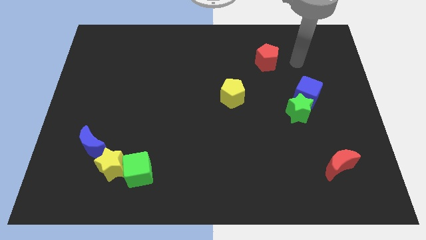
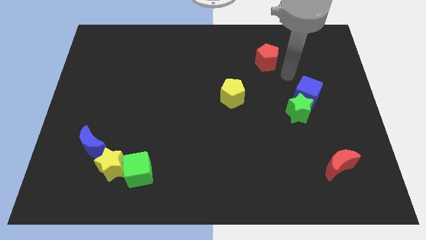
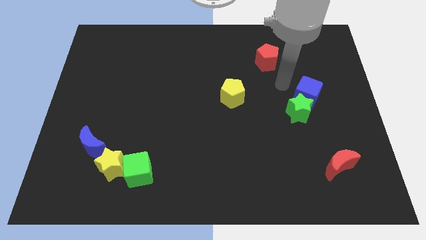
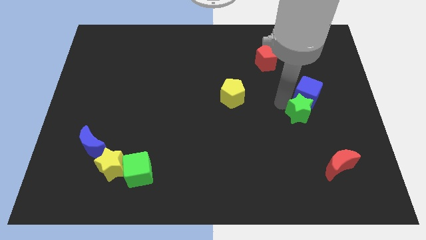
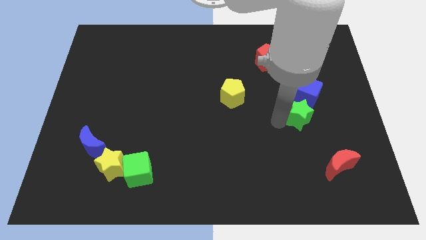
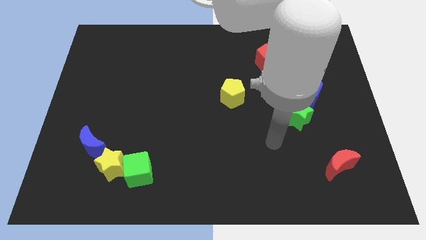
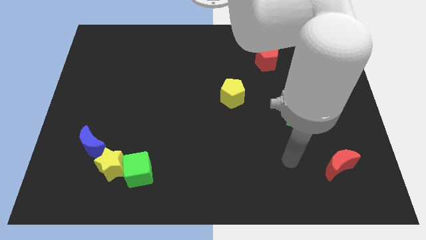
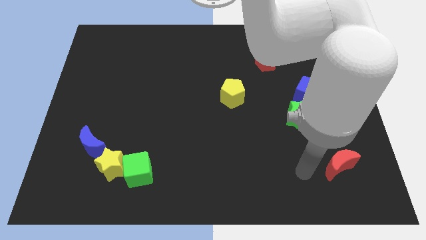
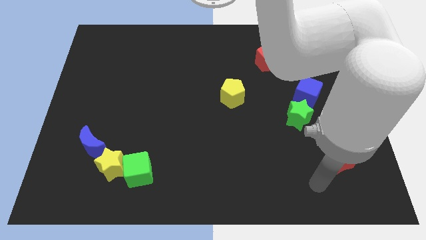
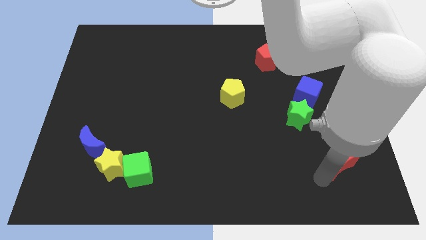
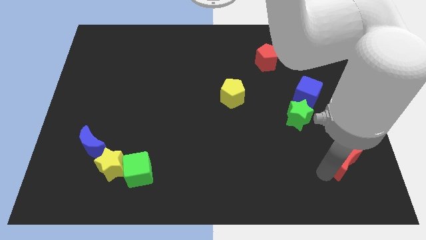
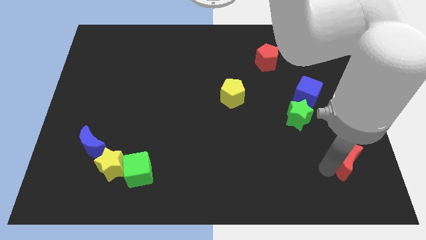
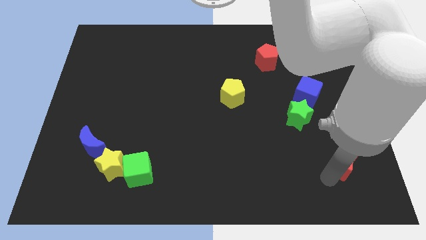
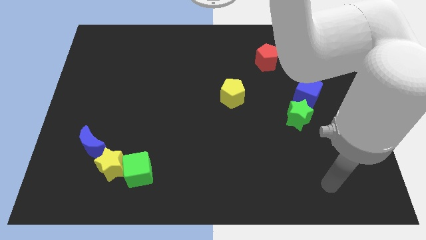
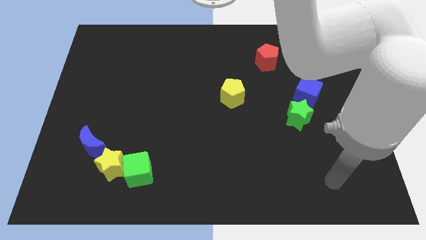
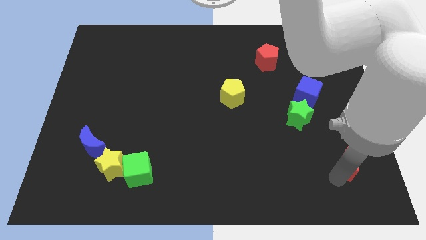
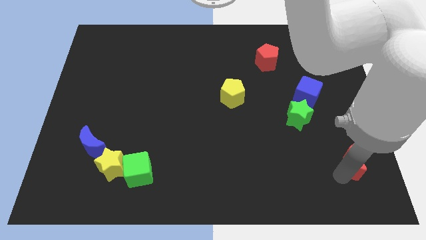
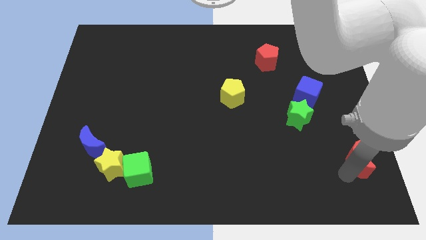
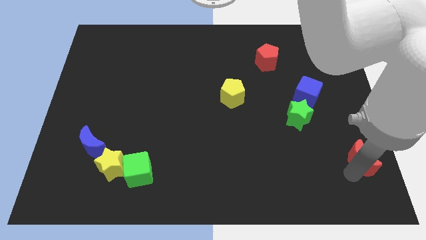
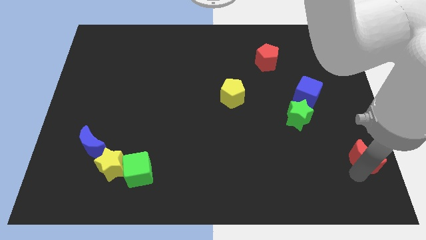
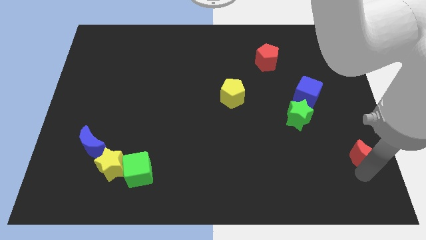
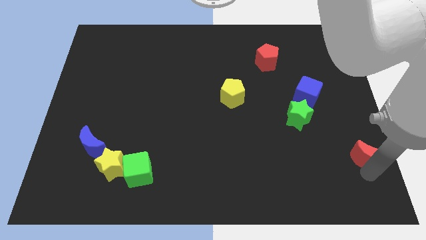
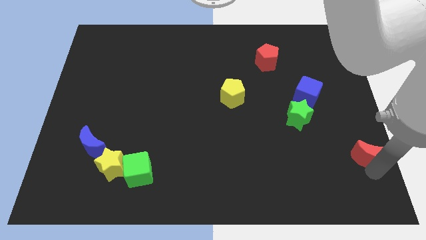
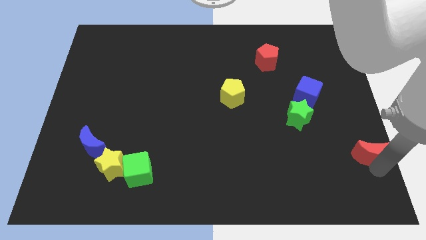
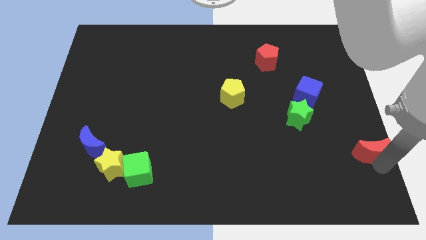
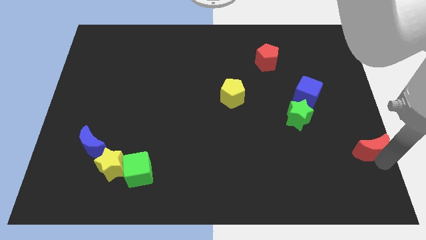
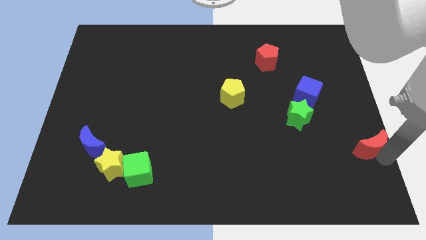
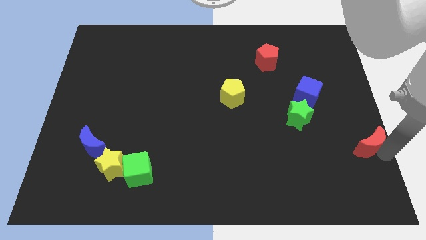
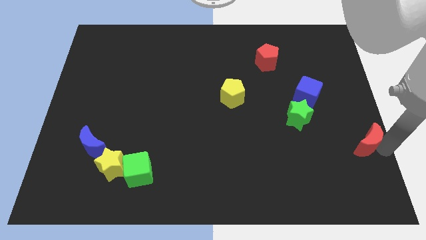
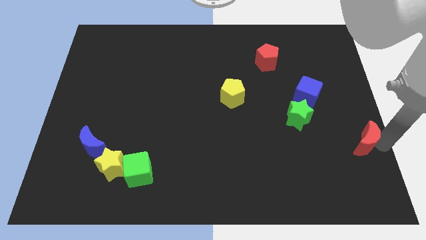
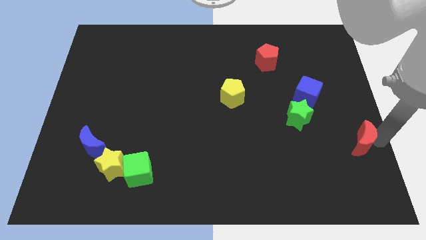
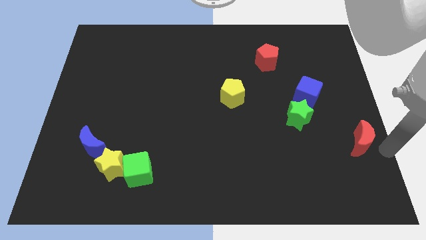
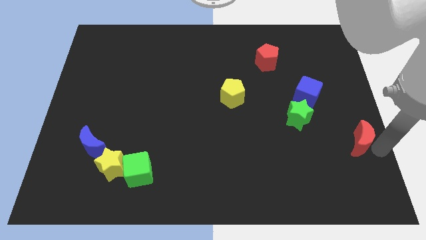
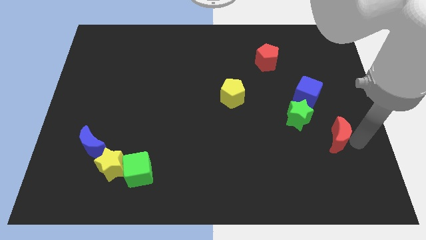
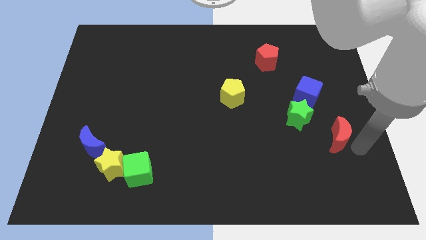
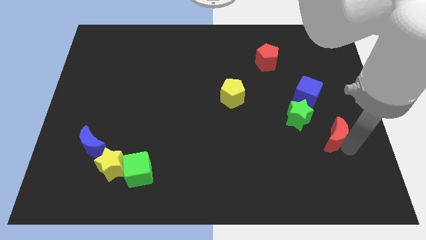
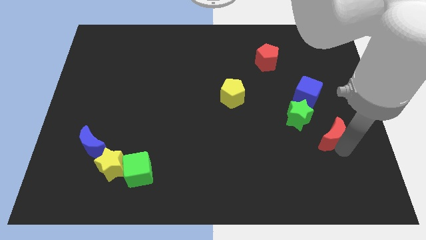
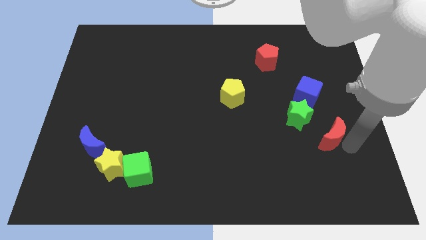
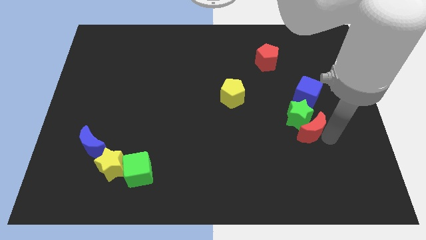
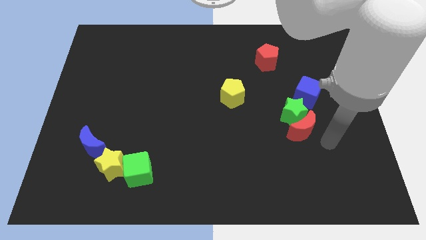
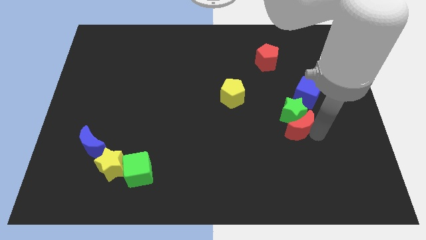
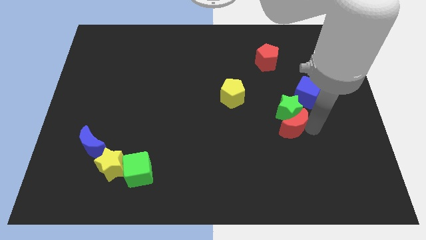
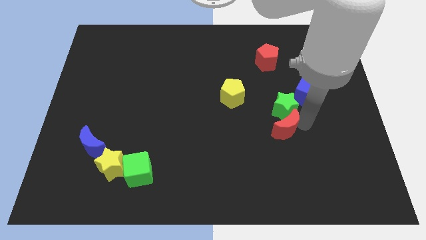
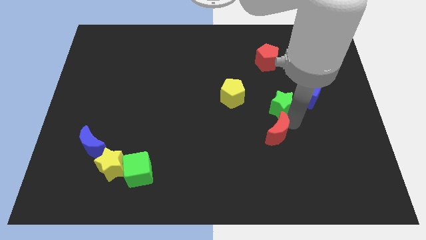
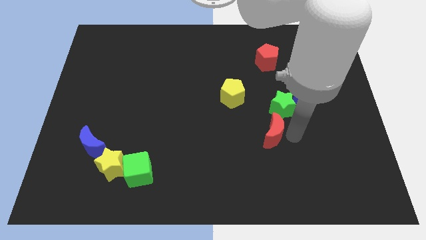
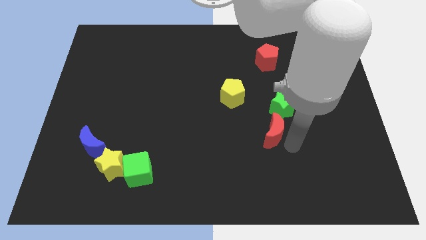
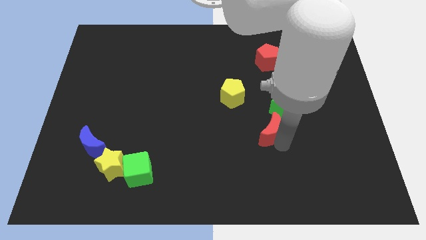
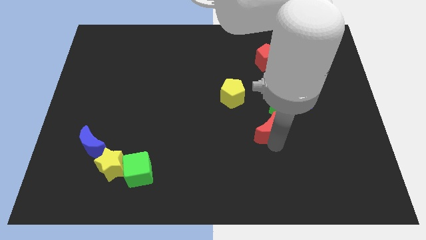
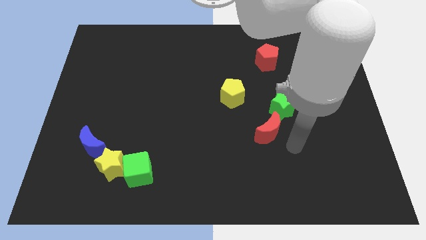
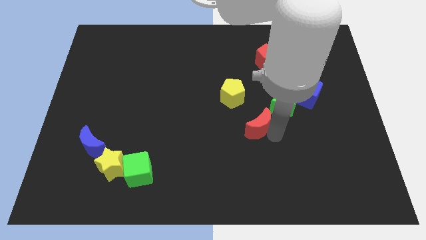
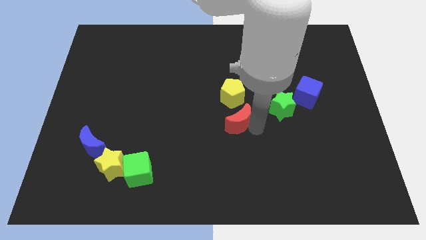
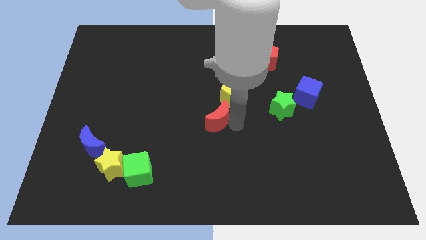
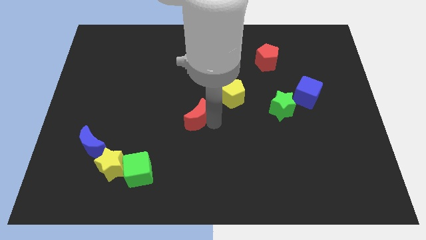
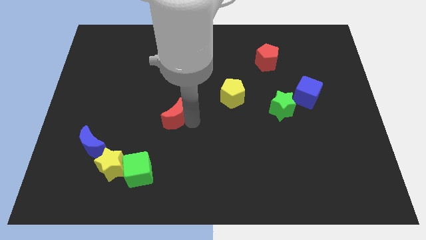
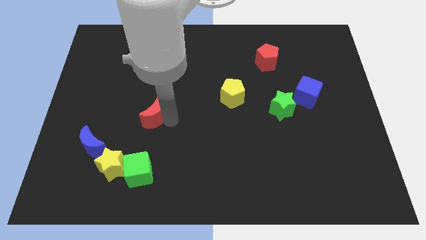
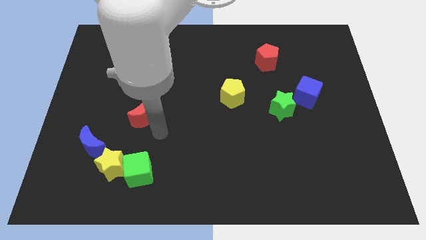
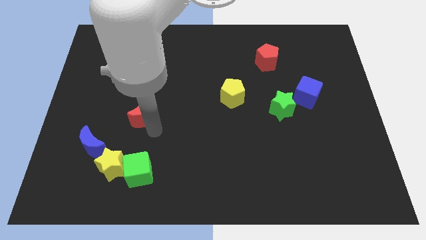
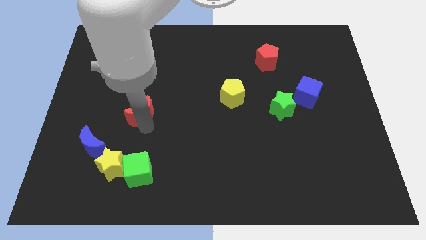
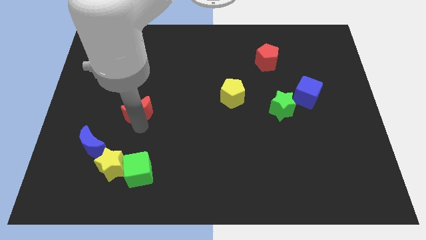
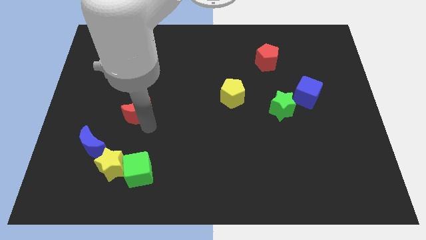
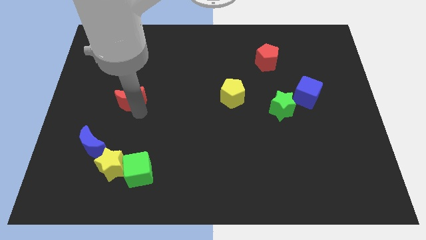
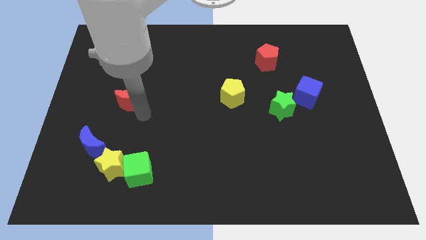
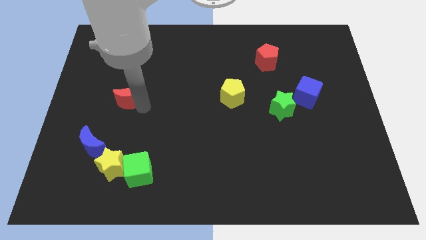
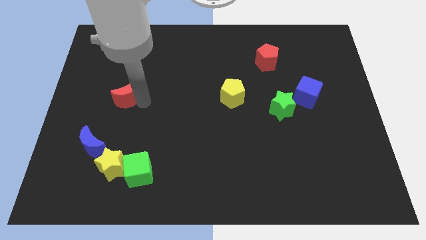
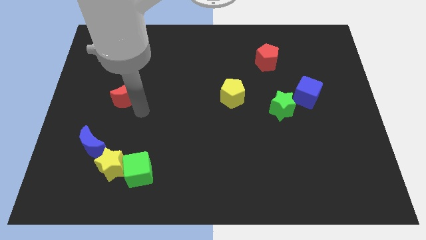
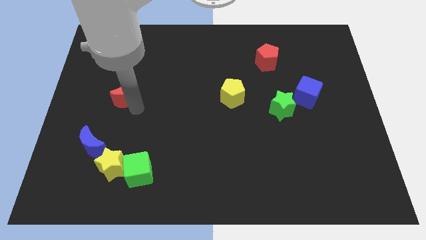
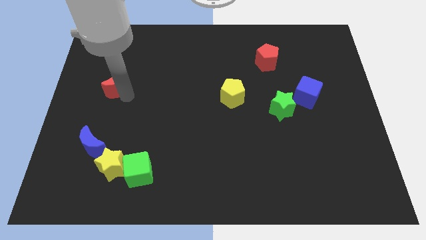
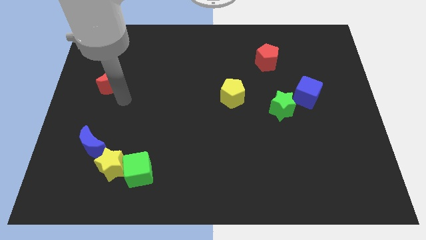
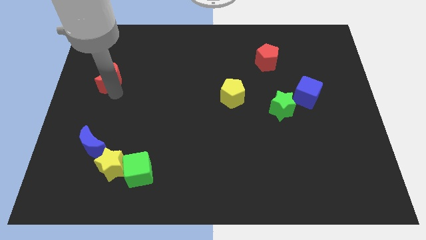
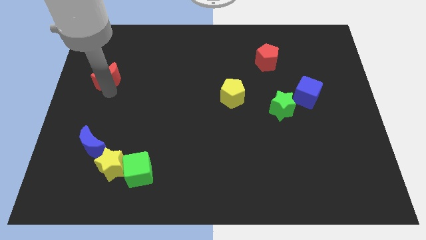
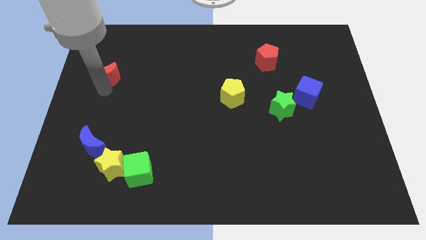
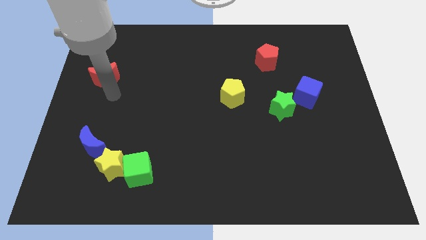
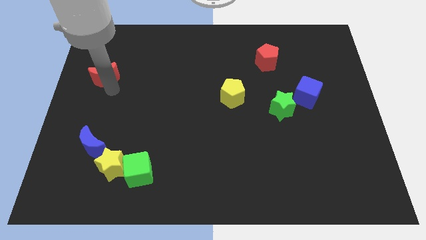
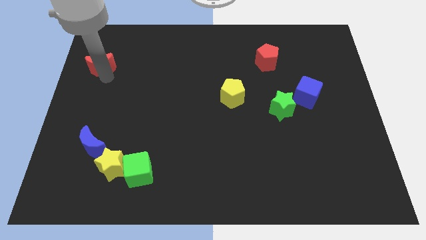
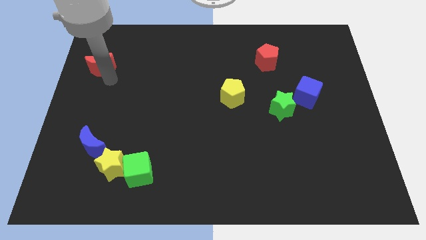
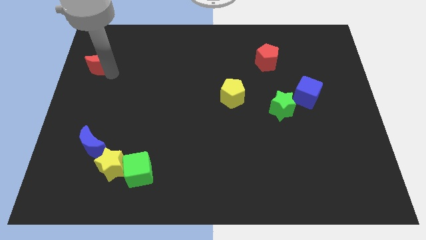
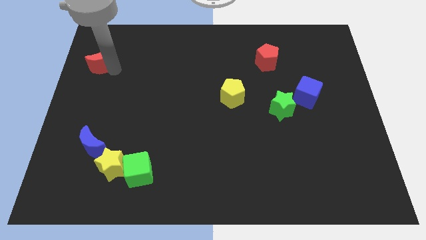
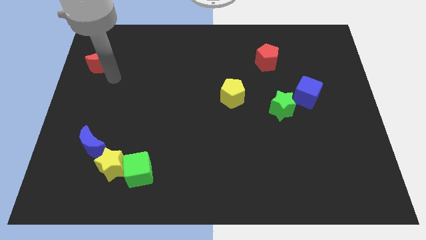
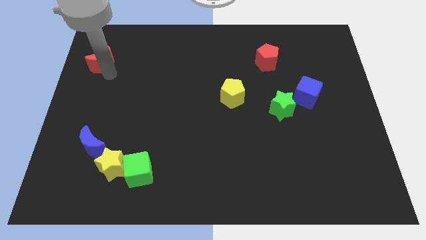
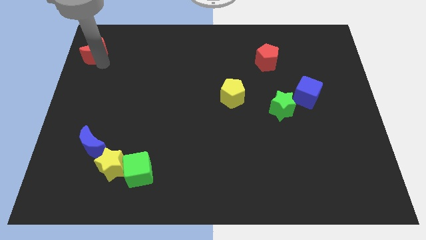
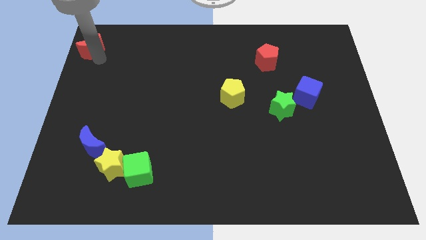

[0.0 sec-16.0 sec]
slide the red moon to the upper left corner

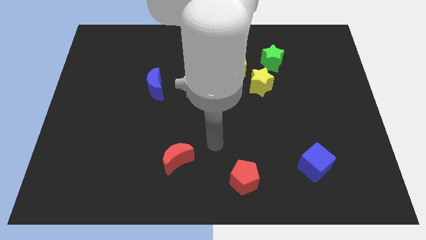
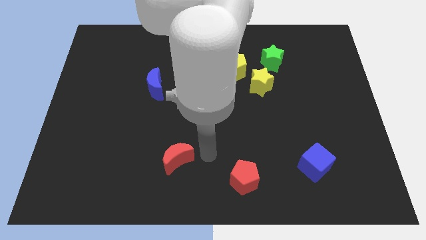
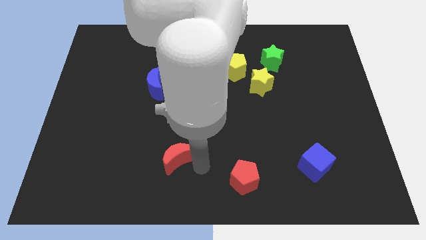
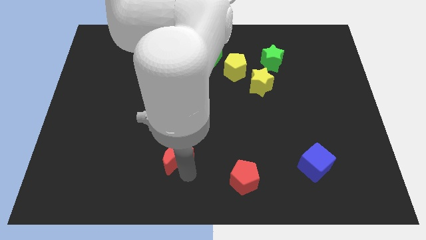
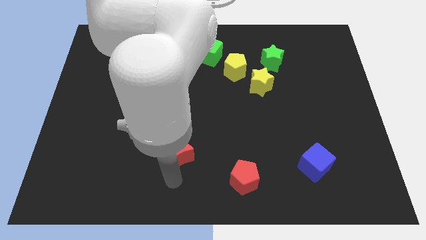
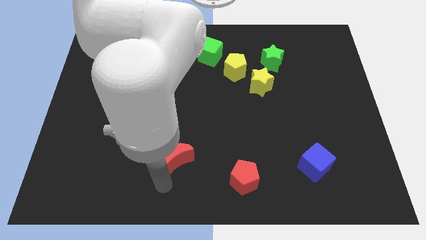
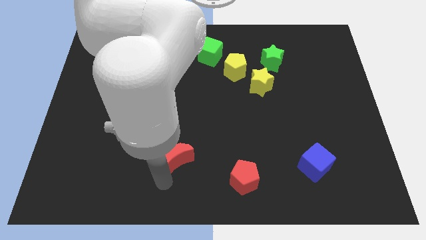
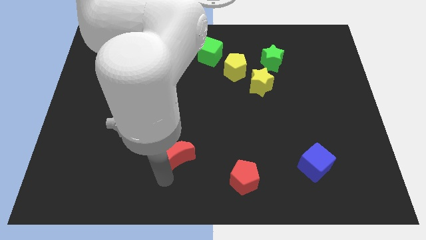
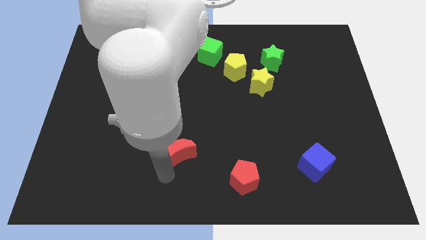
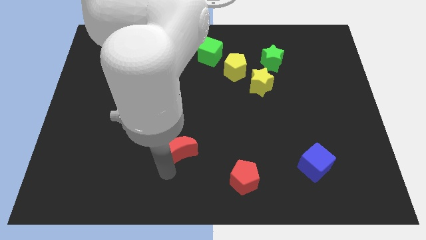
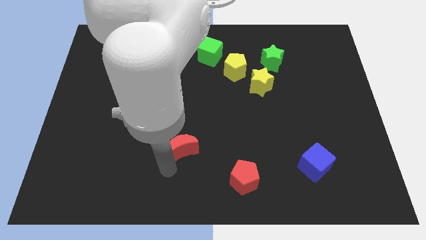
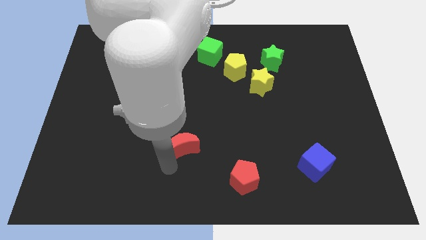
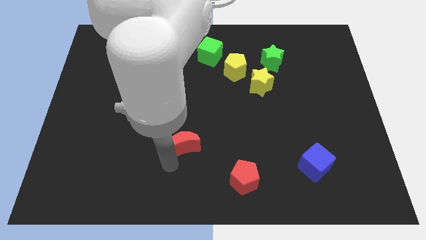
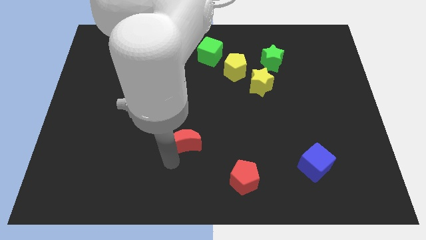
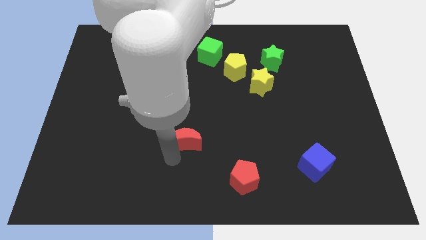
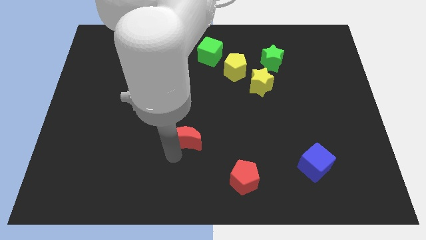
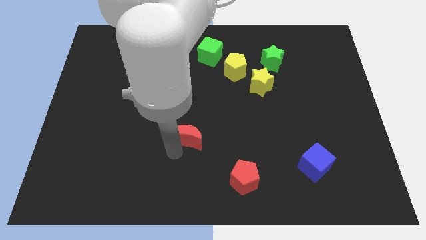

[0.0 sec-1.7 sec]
push the red moon to the middle of the board
